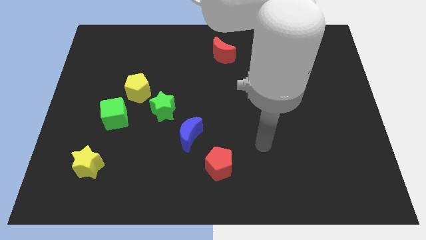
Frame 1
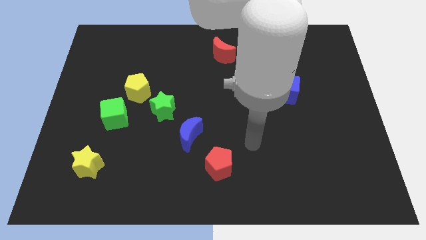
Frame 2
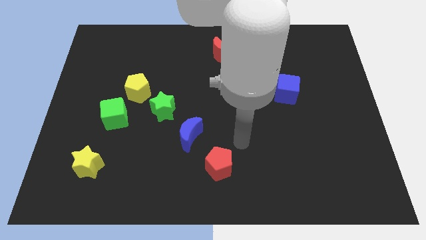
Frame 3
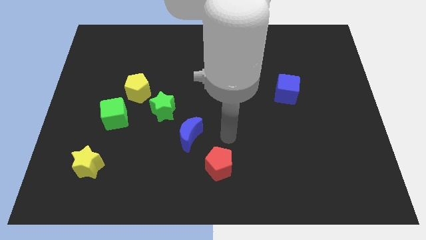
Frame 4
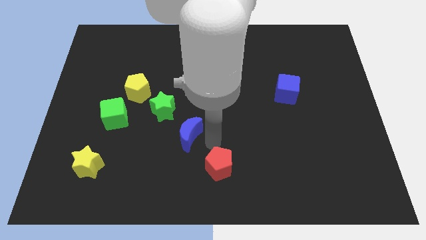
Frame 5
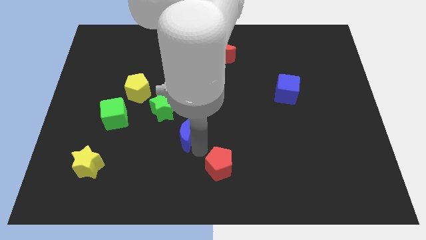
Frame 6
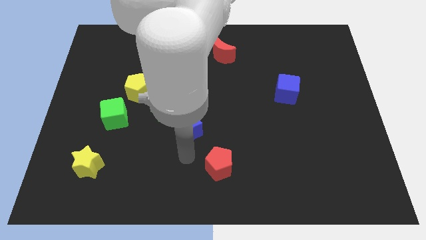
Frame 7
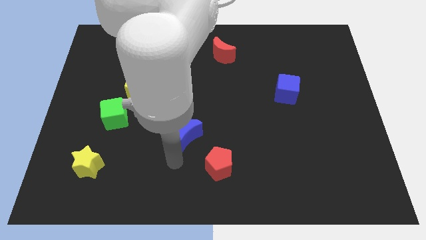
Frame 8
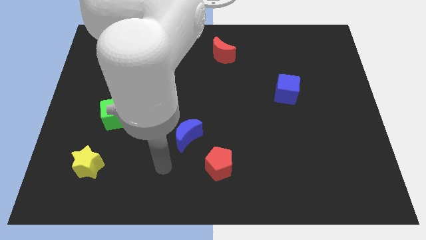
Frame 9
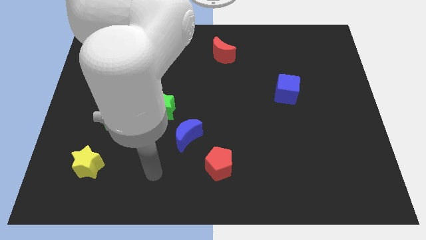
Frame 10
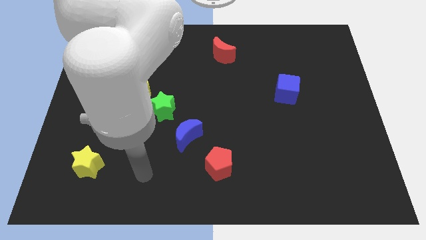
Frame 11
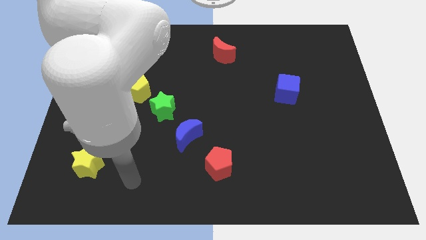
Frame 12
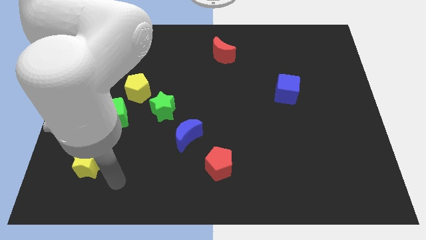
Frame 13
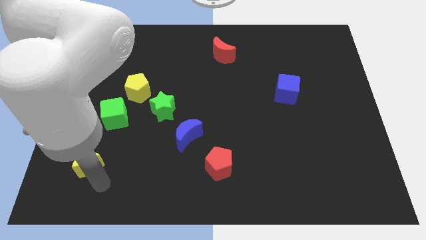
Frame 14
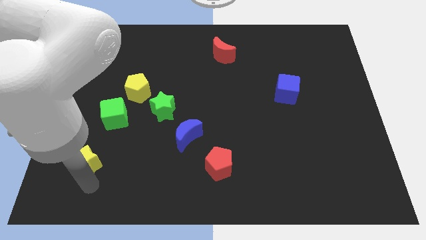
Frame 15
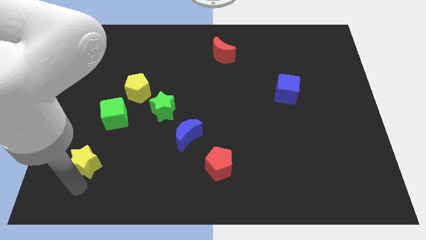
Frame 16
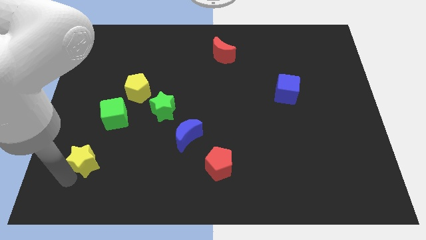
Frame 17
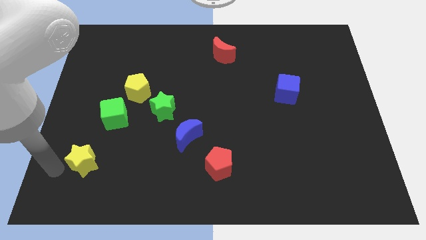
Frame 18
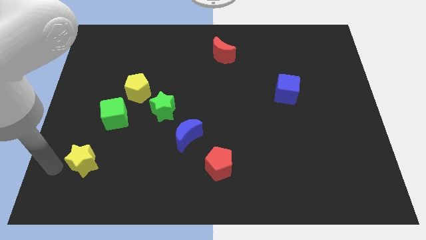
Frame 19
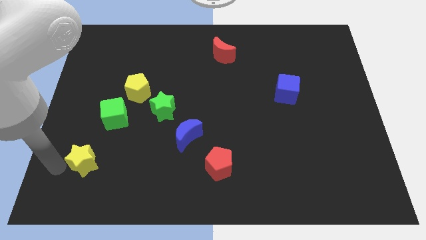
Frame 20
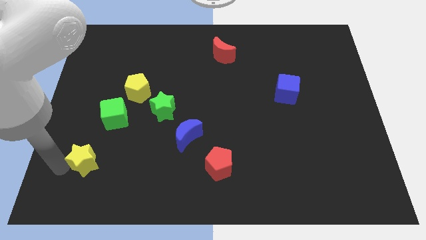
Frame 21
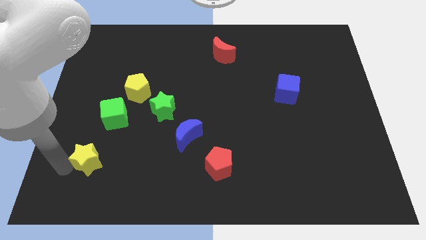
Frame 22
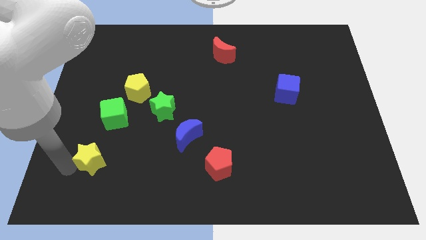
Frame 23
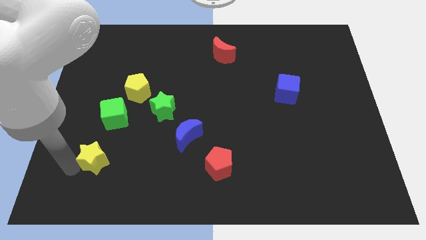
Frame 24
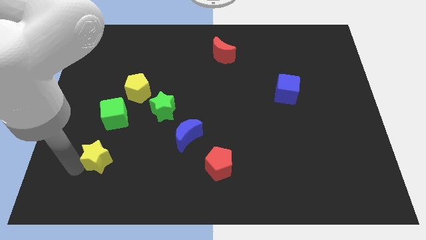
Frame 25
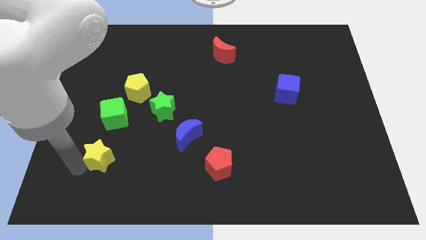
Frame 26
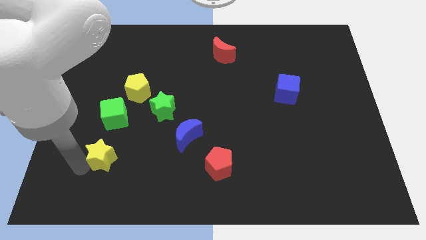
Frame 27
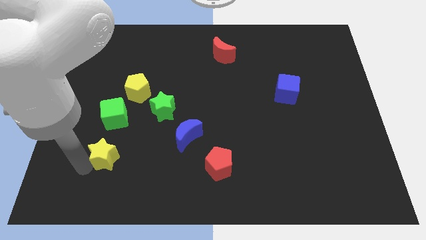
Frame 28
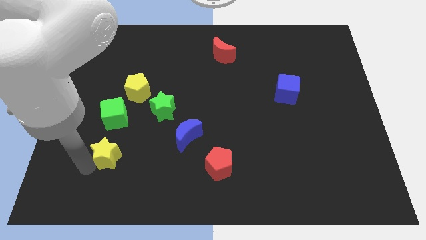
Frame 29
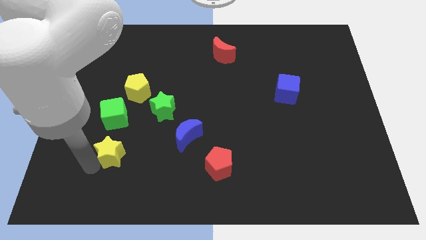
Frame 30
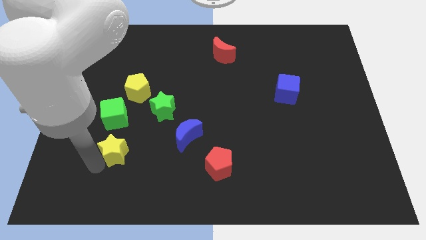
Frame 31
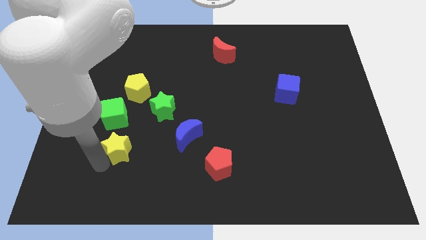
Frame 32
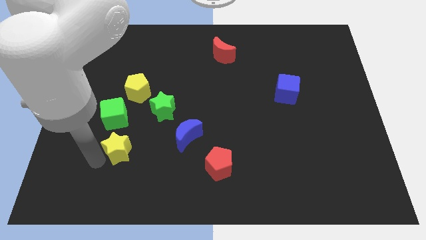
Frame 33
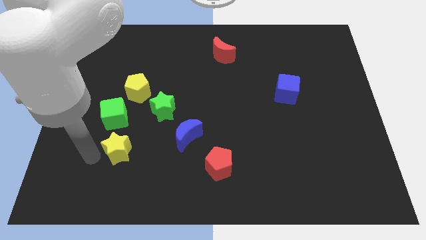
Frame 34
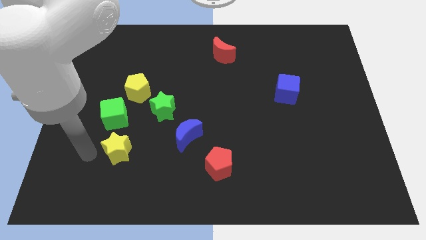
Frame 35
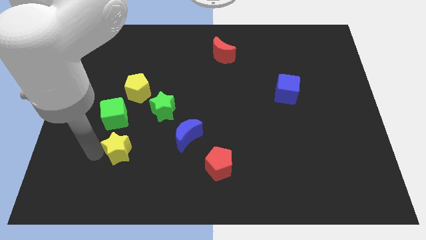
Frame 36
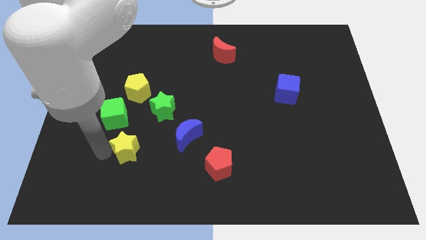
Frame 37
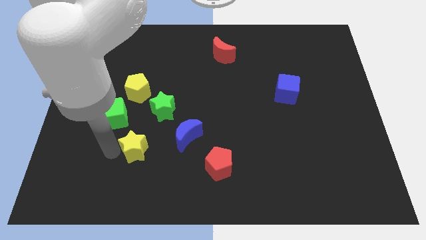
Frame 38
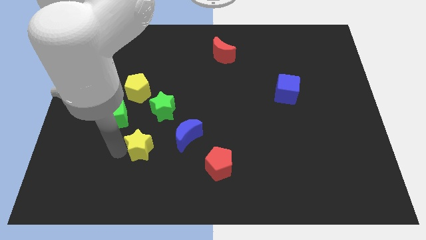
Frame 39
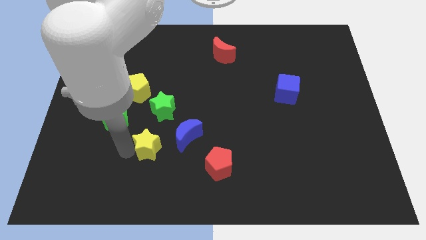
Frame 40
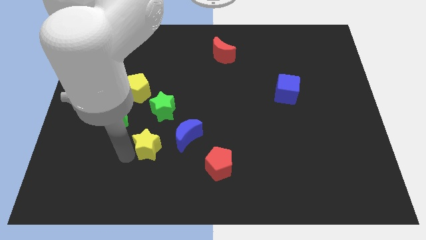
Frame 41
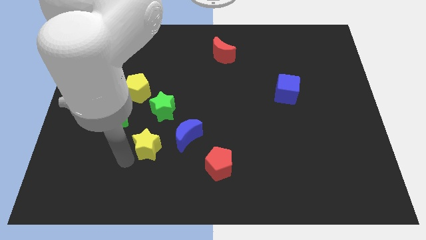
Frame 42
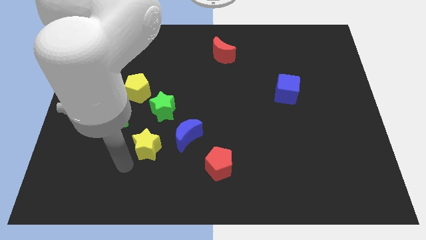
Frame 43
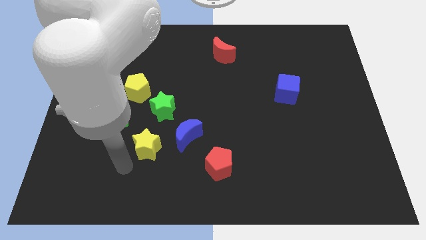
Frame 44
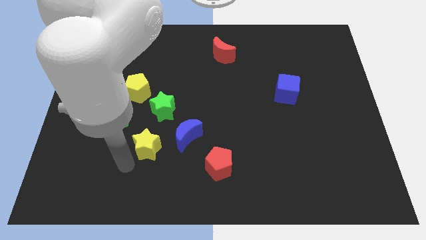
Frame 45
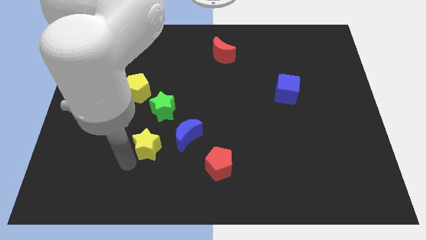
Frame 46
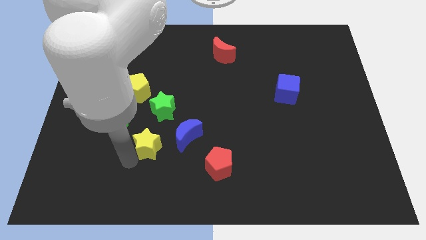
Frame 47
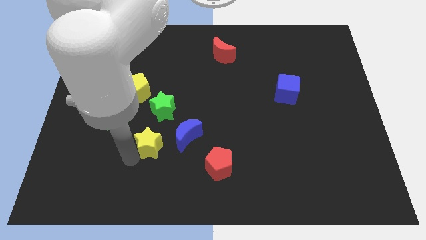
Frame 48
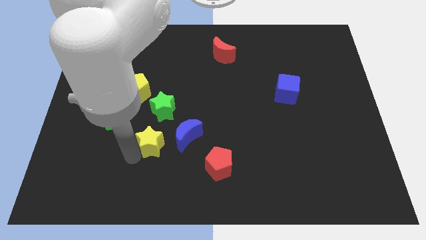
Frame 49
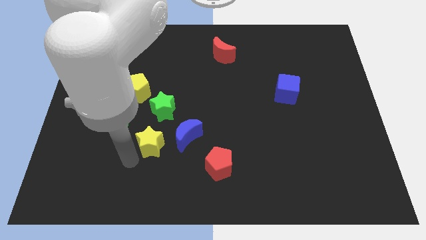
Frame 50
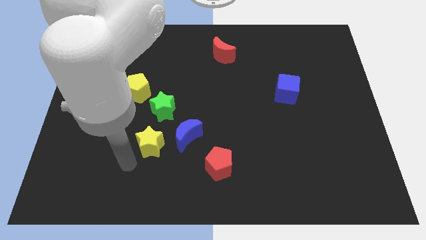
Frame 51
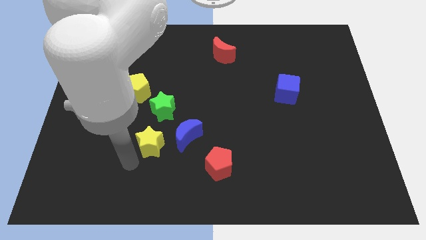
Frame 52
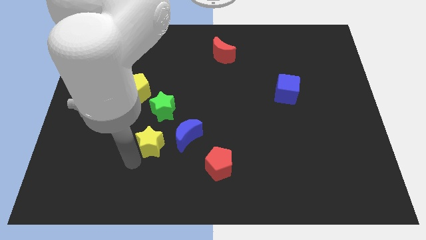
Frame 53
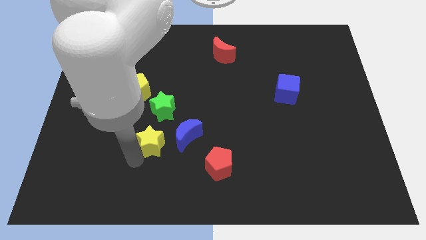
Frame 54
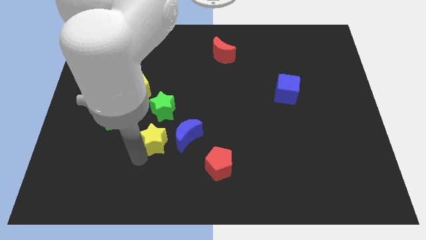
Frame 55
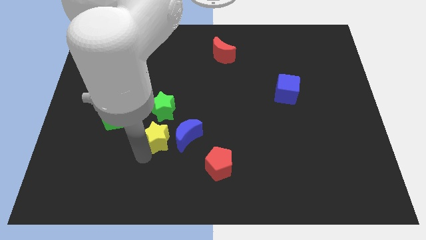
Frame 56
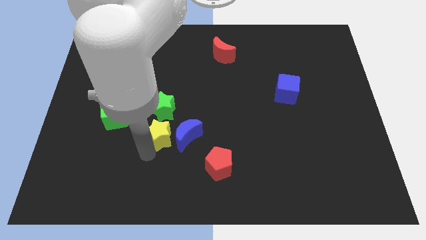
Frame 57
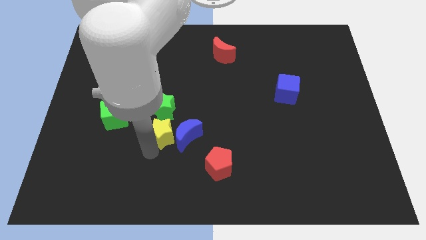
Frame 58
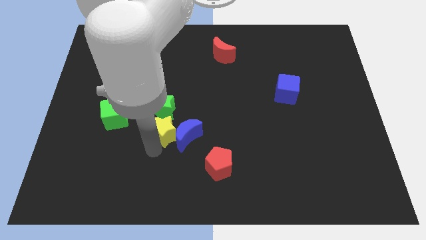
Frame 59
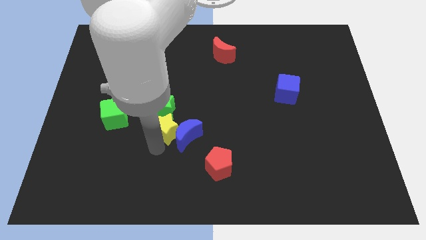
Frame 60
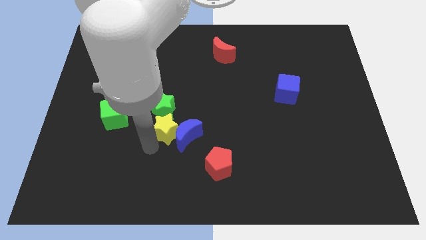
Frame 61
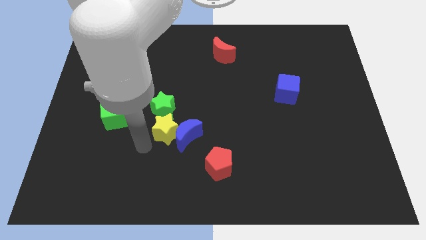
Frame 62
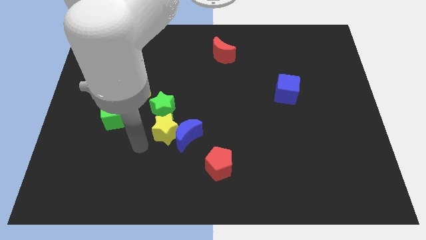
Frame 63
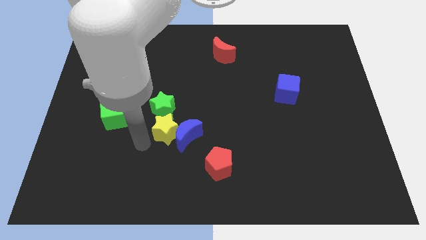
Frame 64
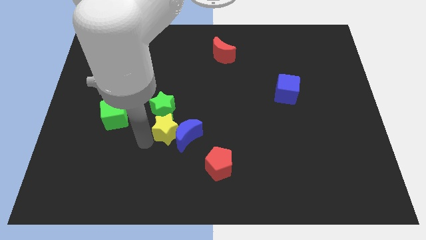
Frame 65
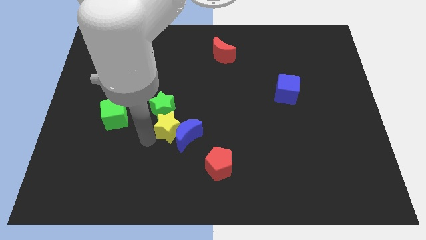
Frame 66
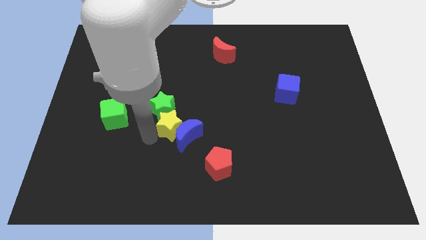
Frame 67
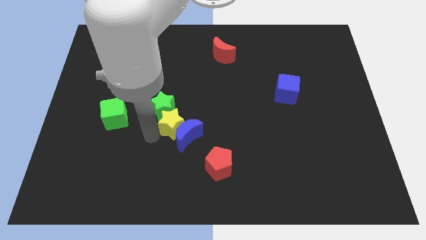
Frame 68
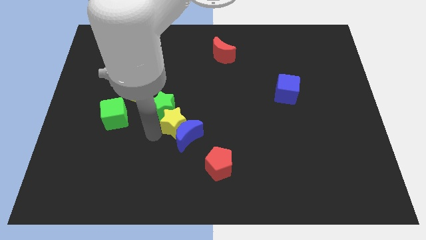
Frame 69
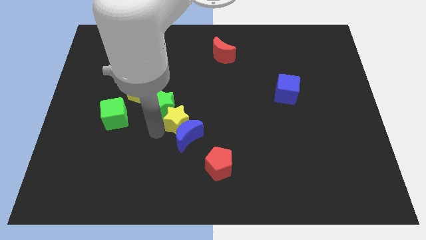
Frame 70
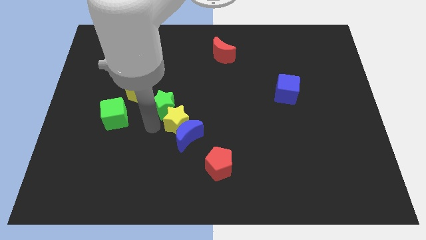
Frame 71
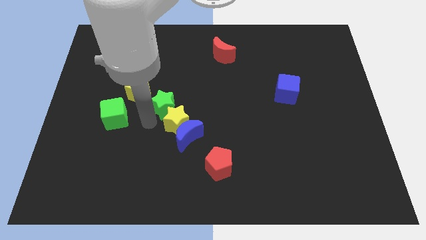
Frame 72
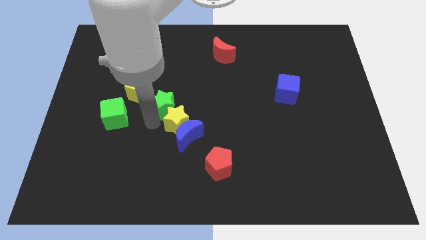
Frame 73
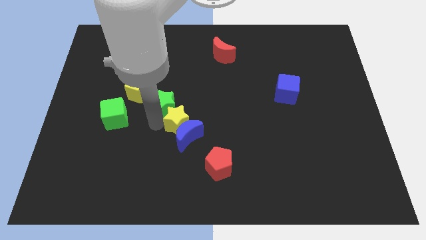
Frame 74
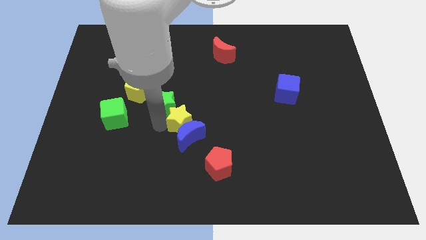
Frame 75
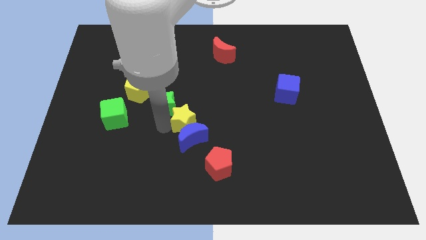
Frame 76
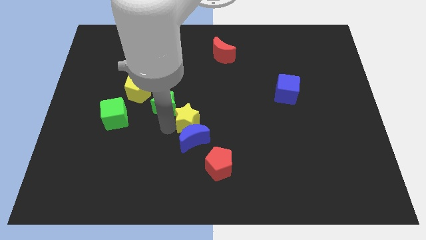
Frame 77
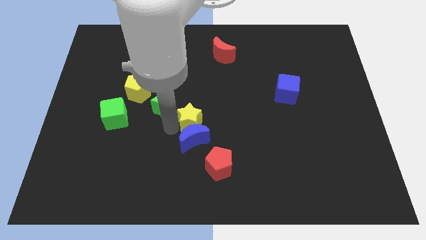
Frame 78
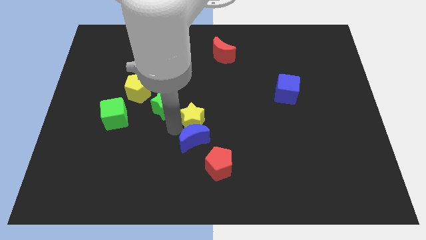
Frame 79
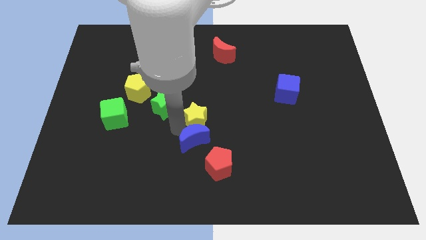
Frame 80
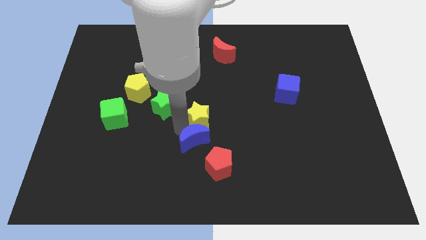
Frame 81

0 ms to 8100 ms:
move the yellow star above the red pentagon
